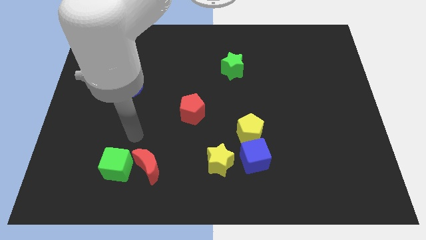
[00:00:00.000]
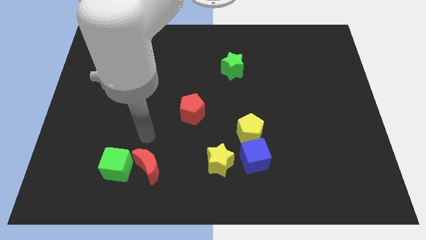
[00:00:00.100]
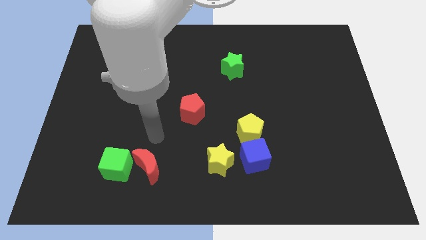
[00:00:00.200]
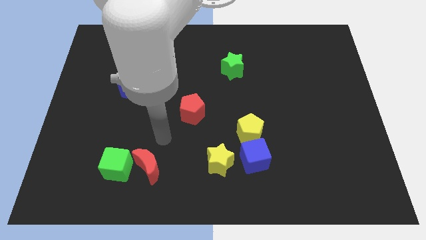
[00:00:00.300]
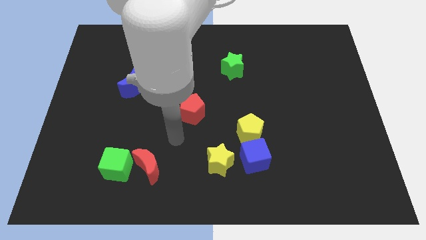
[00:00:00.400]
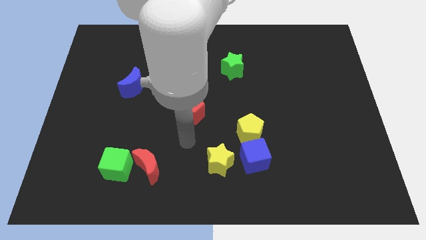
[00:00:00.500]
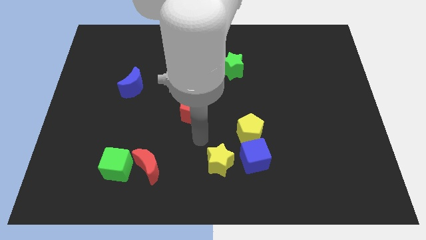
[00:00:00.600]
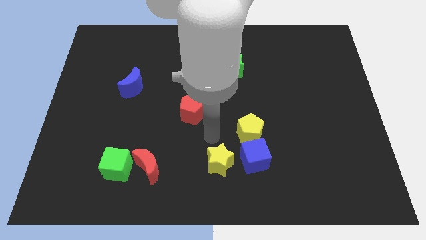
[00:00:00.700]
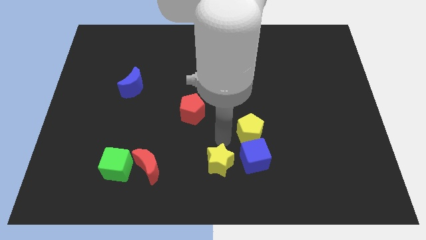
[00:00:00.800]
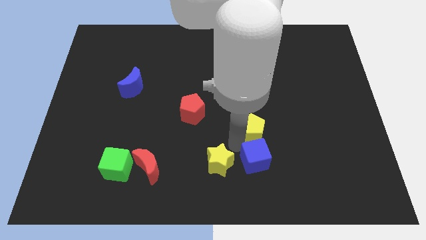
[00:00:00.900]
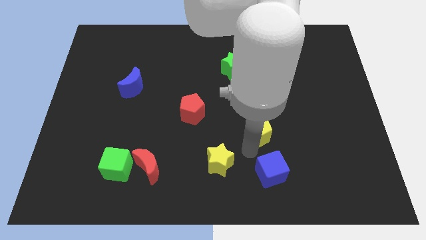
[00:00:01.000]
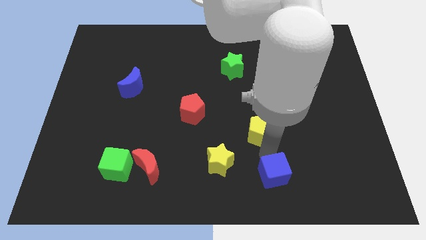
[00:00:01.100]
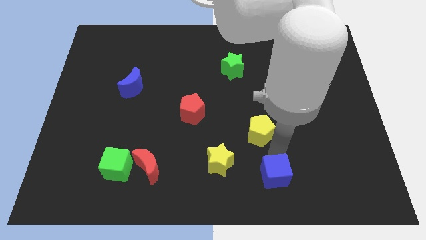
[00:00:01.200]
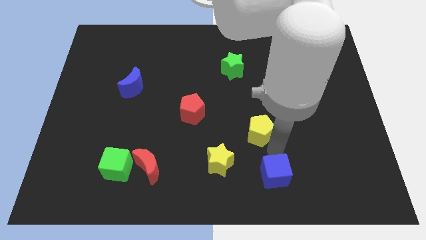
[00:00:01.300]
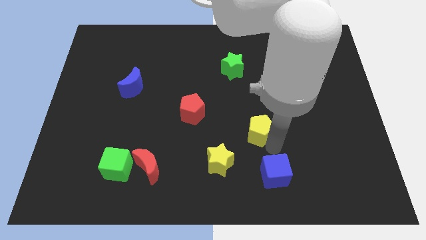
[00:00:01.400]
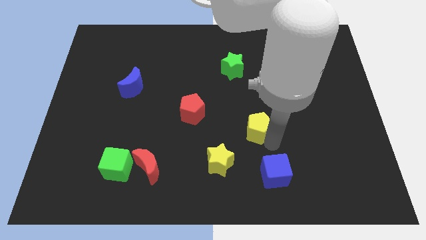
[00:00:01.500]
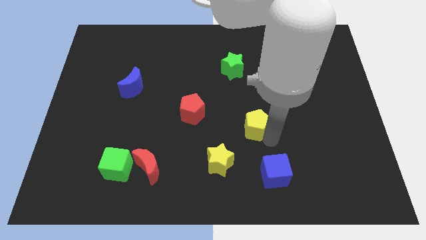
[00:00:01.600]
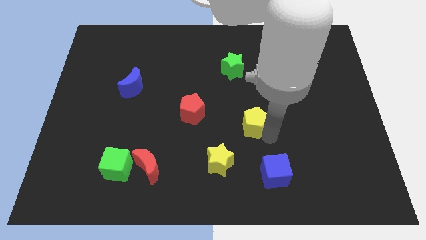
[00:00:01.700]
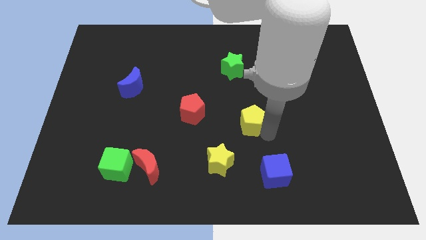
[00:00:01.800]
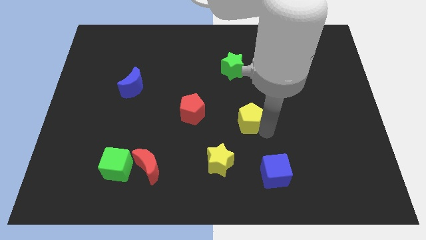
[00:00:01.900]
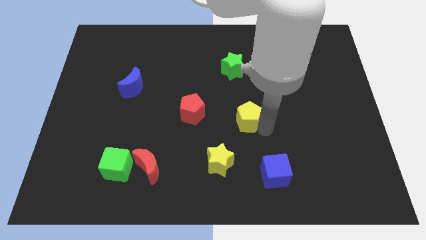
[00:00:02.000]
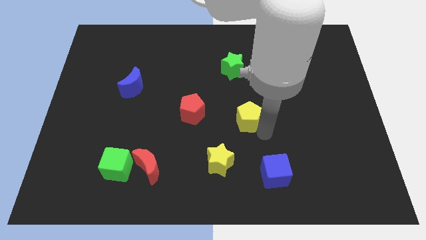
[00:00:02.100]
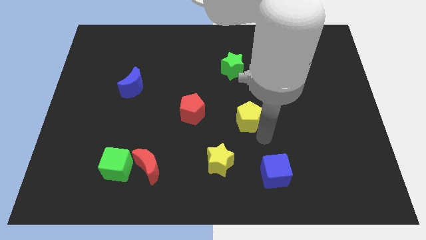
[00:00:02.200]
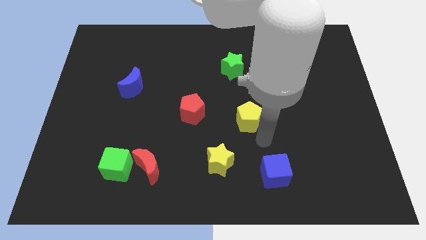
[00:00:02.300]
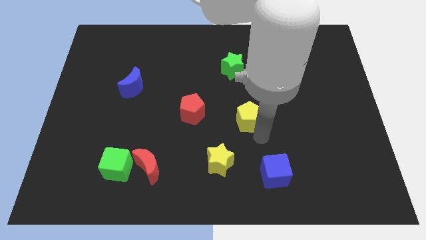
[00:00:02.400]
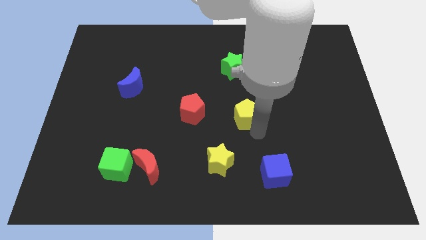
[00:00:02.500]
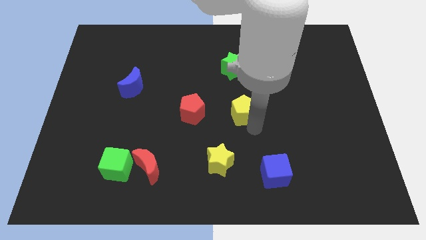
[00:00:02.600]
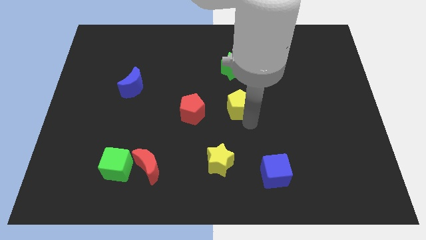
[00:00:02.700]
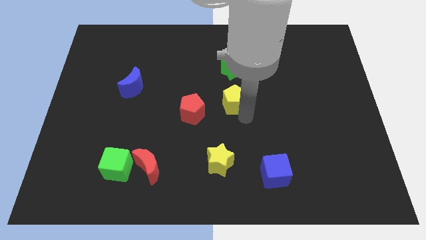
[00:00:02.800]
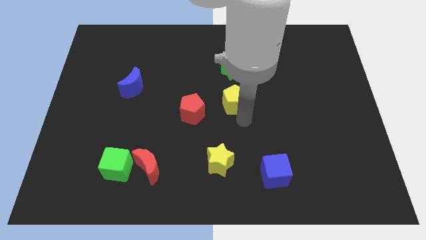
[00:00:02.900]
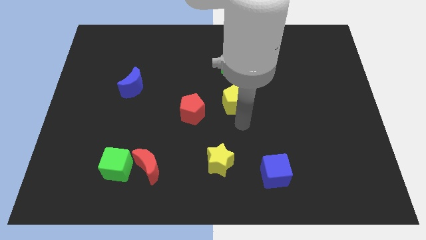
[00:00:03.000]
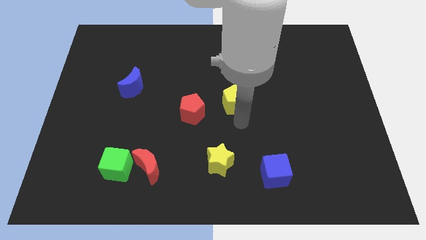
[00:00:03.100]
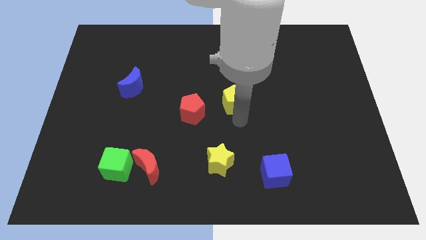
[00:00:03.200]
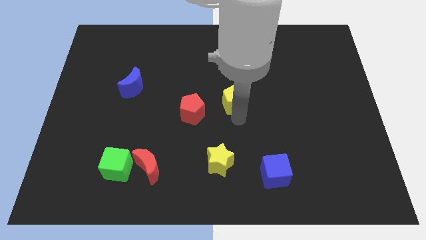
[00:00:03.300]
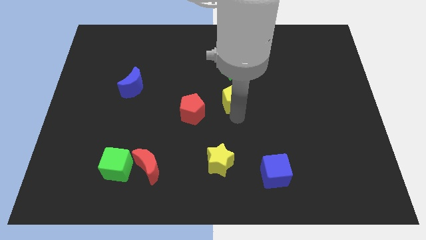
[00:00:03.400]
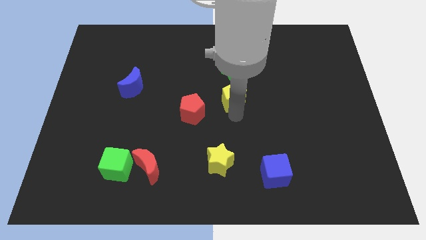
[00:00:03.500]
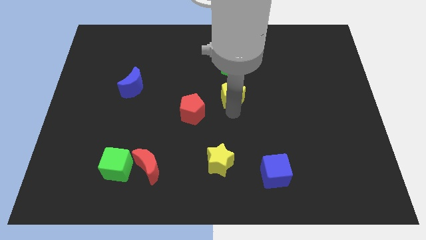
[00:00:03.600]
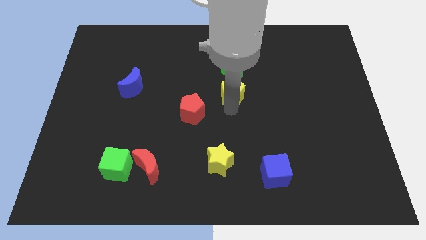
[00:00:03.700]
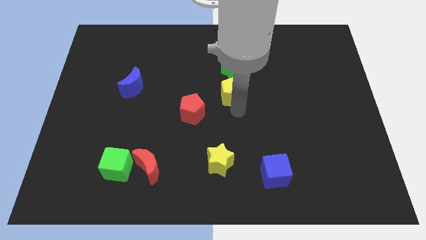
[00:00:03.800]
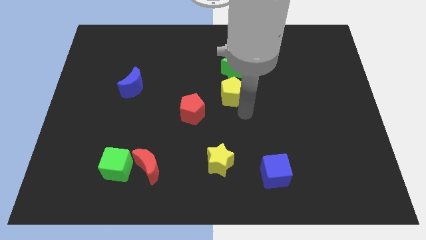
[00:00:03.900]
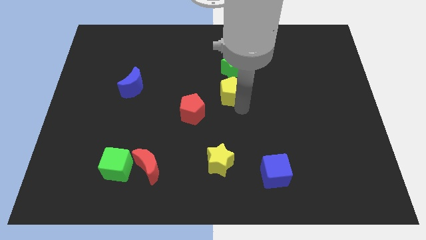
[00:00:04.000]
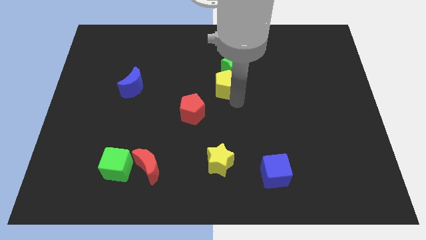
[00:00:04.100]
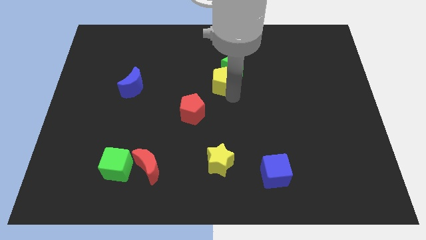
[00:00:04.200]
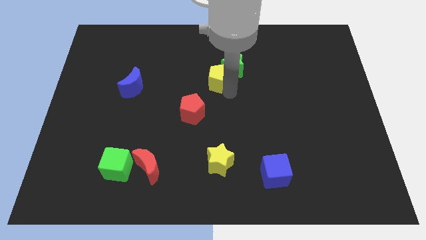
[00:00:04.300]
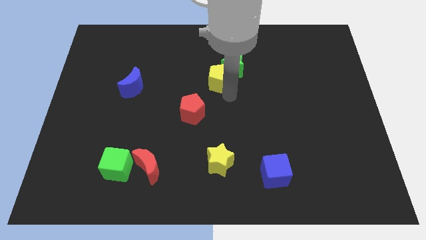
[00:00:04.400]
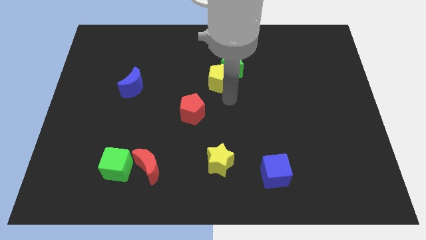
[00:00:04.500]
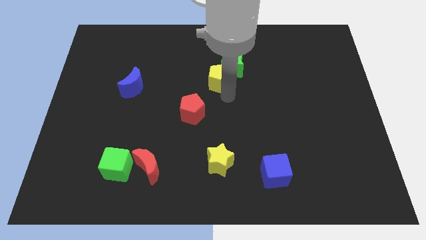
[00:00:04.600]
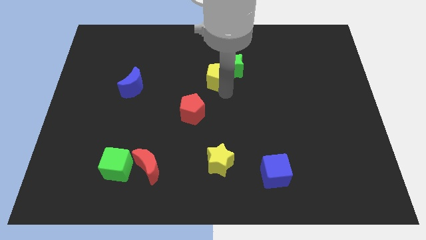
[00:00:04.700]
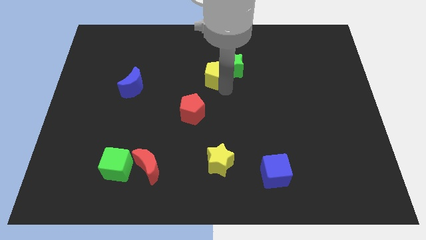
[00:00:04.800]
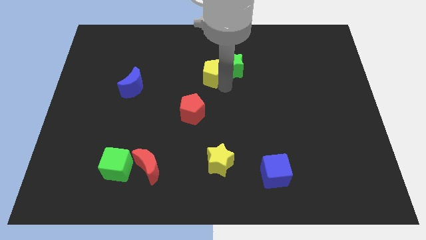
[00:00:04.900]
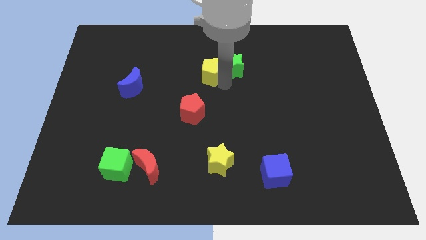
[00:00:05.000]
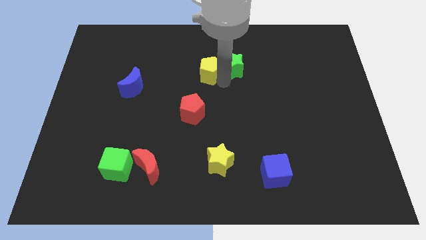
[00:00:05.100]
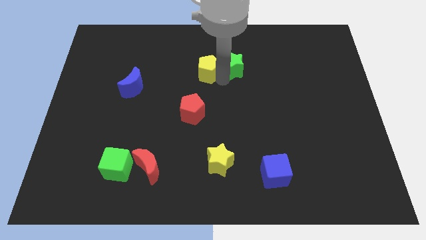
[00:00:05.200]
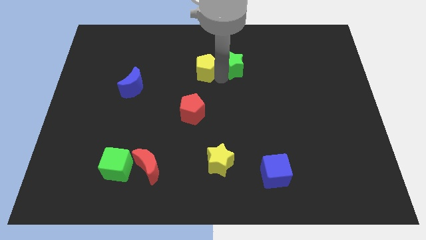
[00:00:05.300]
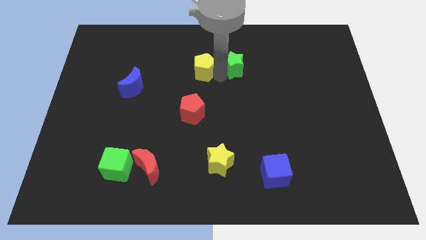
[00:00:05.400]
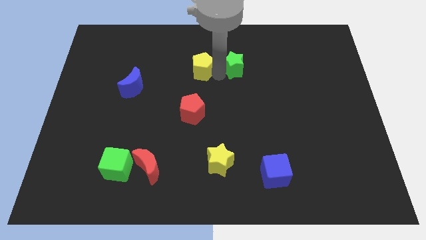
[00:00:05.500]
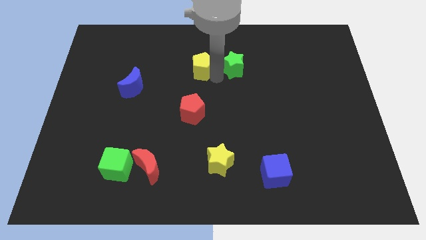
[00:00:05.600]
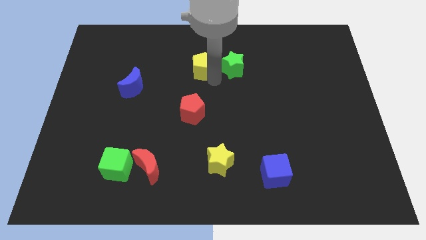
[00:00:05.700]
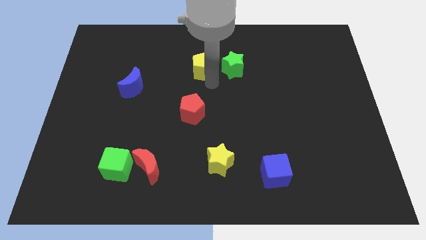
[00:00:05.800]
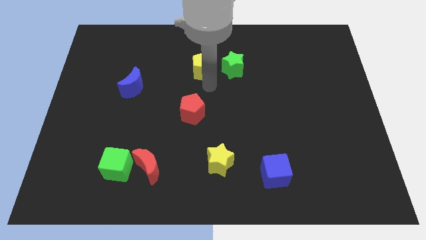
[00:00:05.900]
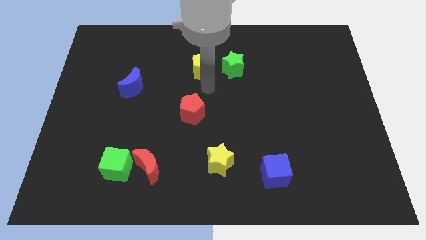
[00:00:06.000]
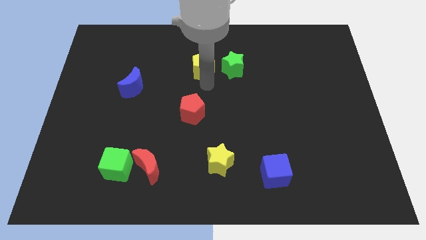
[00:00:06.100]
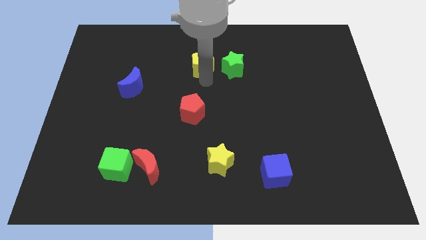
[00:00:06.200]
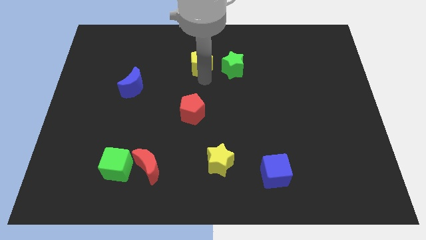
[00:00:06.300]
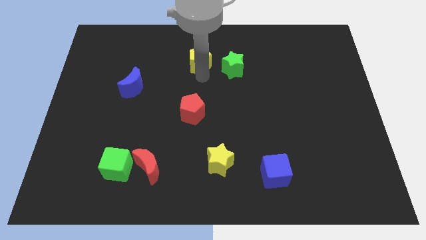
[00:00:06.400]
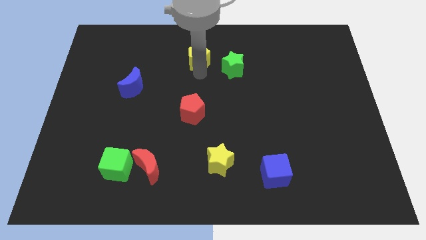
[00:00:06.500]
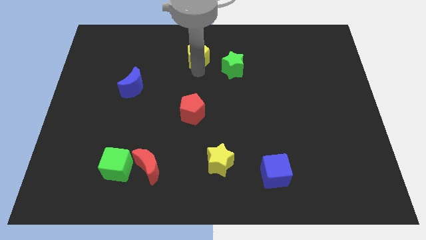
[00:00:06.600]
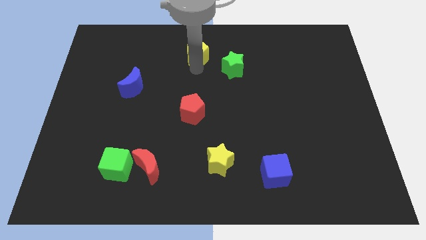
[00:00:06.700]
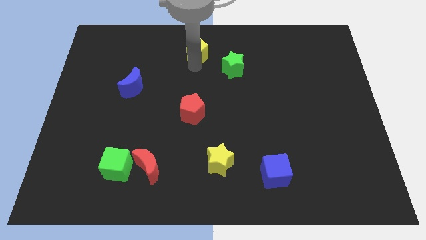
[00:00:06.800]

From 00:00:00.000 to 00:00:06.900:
slide the yellow pentagon to the top side
